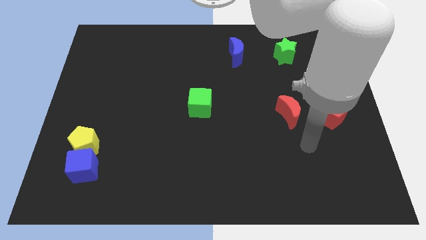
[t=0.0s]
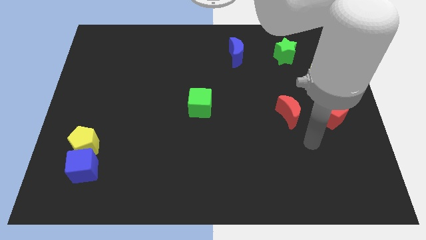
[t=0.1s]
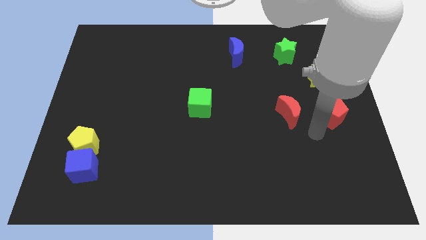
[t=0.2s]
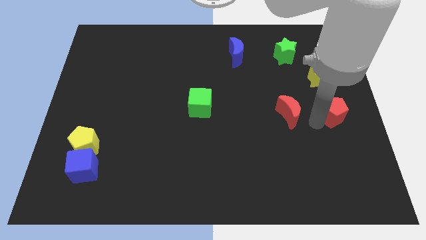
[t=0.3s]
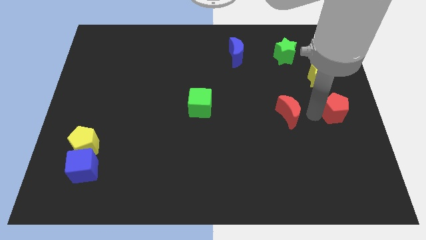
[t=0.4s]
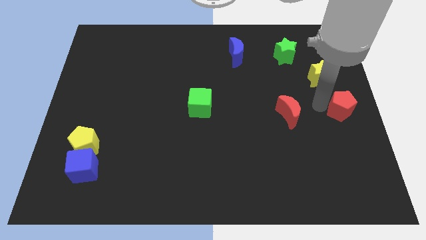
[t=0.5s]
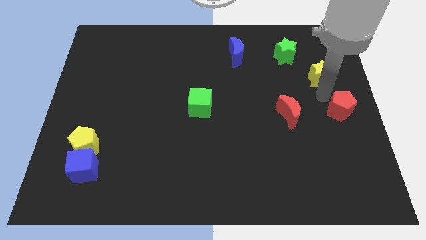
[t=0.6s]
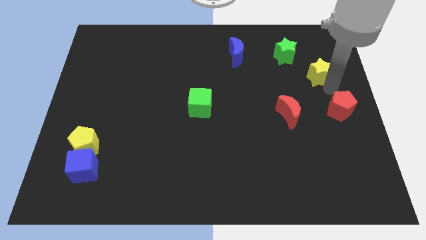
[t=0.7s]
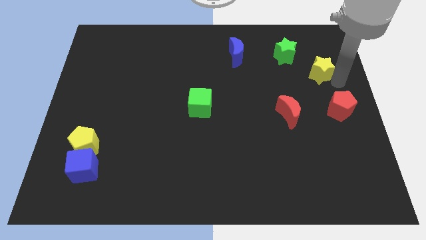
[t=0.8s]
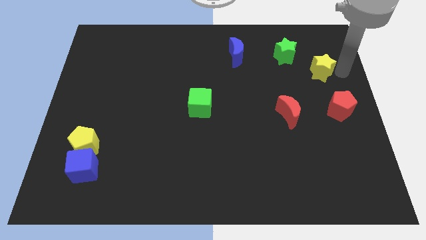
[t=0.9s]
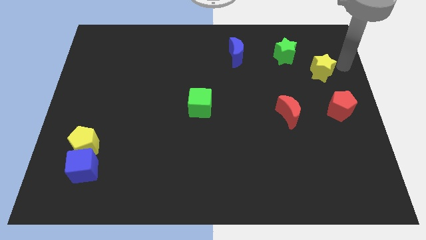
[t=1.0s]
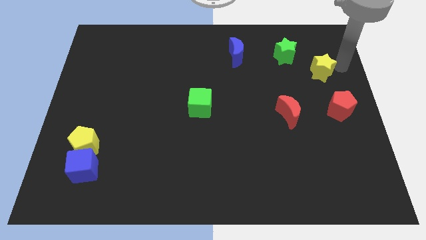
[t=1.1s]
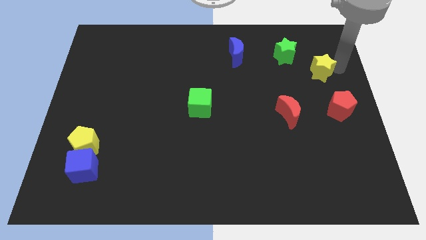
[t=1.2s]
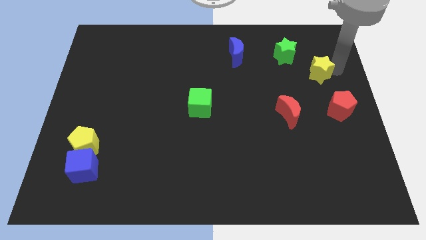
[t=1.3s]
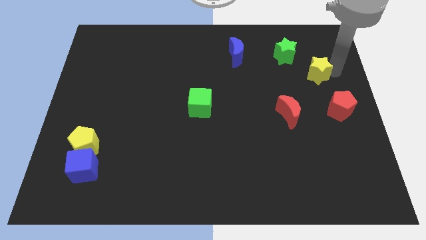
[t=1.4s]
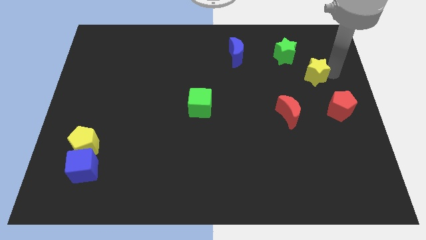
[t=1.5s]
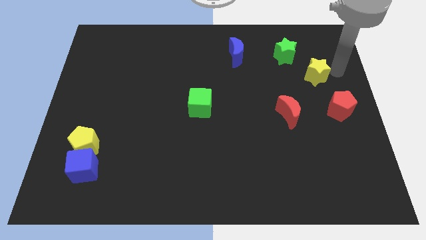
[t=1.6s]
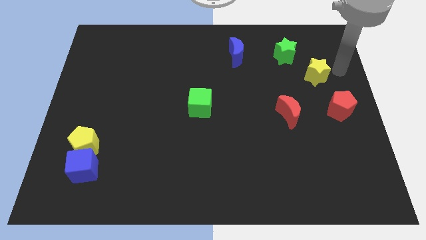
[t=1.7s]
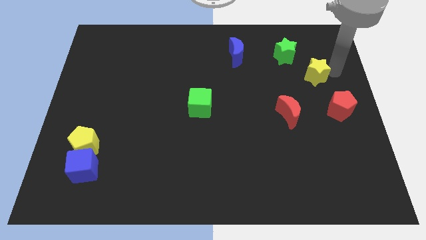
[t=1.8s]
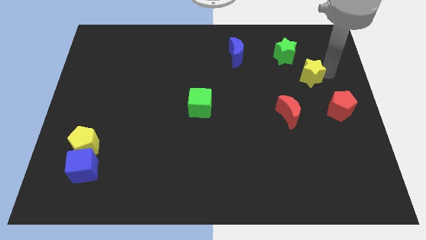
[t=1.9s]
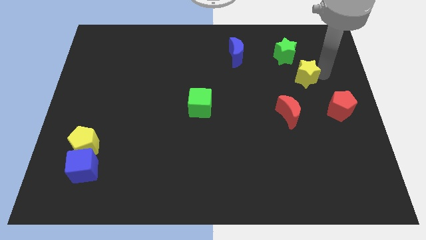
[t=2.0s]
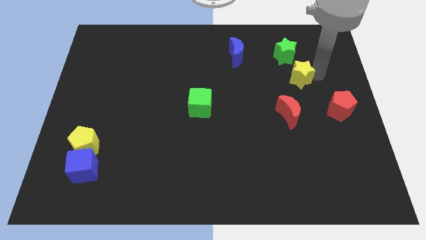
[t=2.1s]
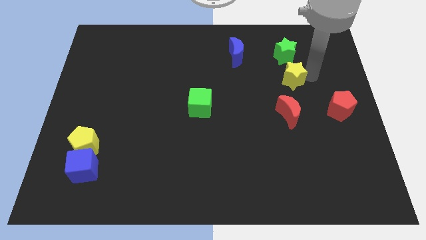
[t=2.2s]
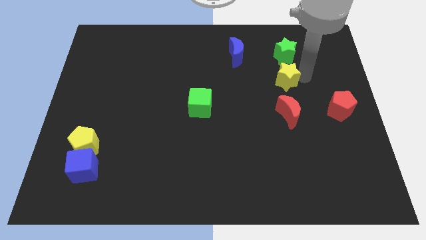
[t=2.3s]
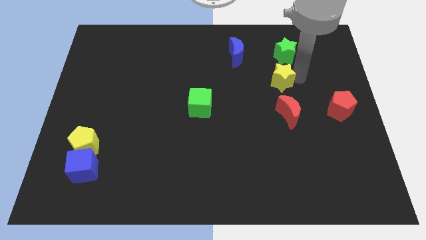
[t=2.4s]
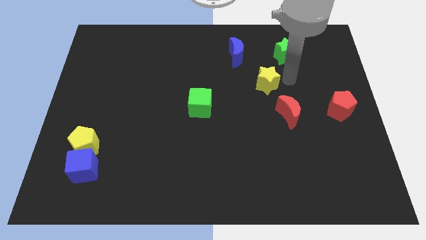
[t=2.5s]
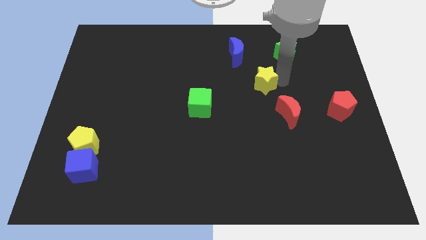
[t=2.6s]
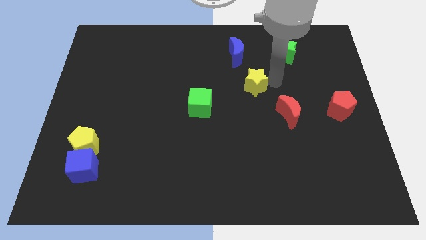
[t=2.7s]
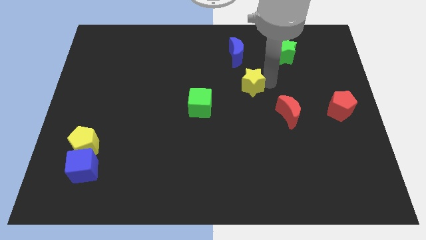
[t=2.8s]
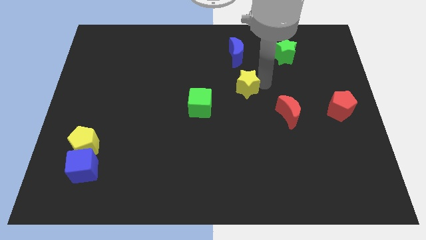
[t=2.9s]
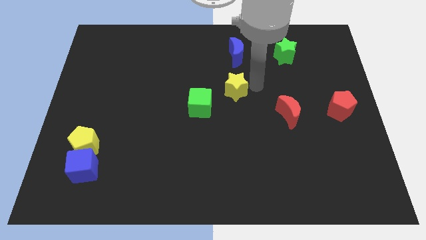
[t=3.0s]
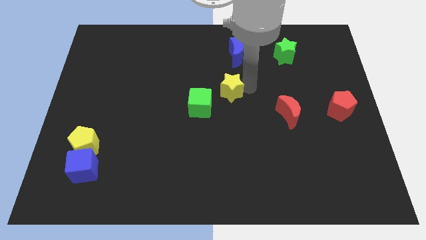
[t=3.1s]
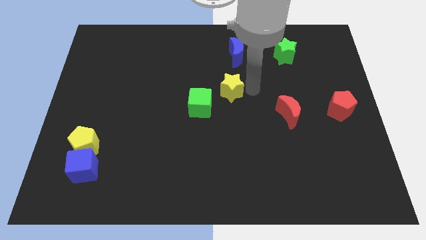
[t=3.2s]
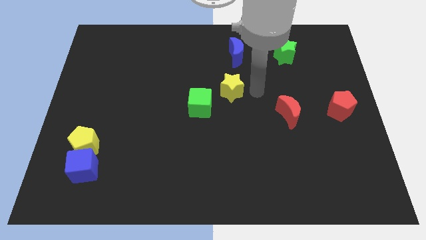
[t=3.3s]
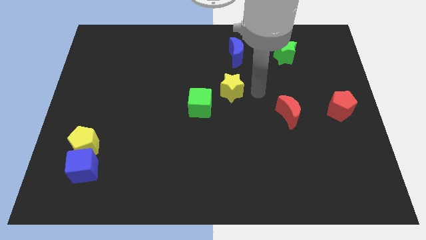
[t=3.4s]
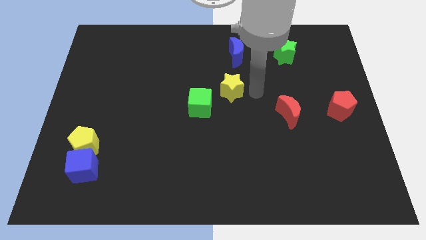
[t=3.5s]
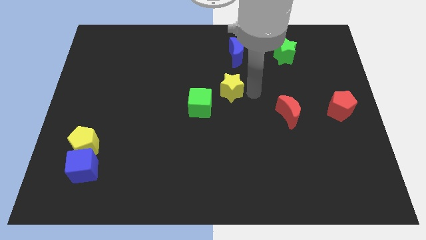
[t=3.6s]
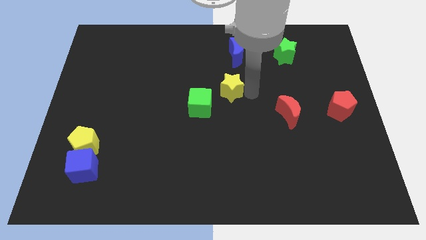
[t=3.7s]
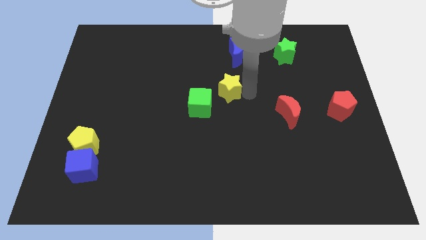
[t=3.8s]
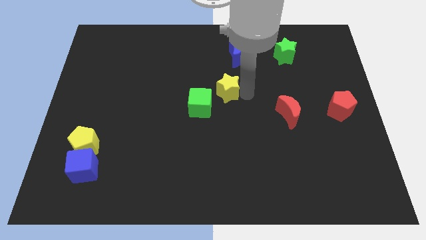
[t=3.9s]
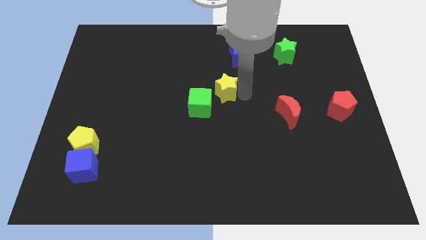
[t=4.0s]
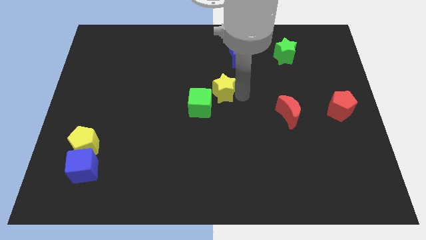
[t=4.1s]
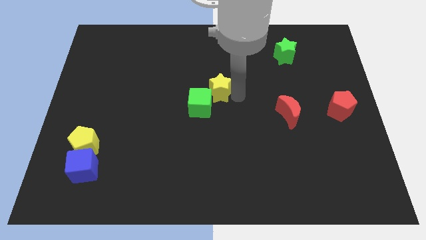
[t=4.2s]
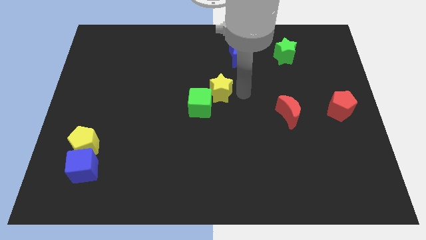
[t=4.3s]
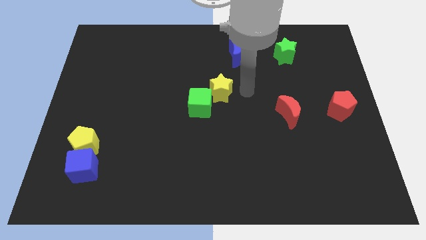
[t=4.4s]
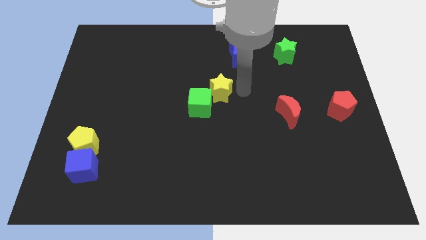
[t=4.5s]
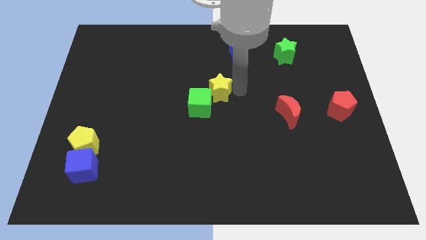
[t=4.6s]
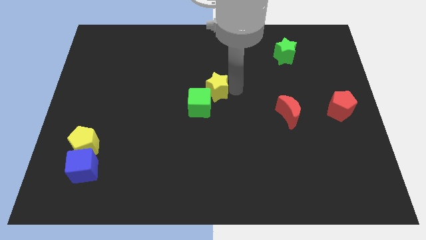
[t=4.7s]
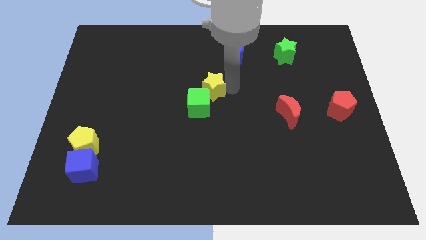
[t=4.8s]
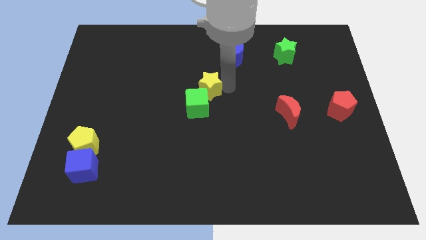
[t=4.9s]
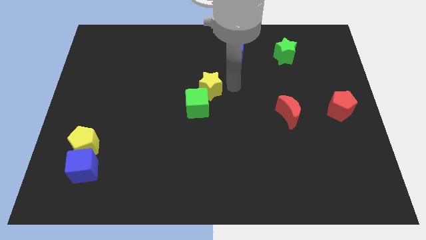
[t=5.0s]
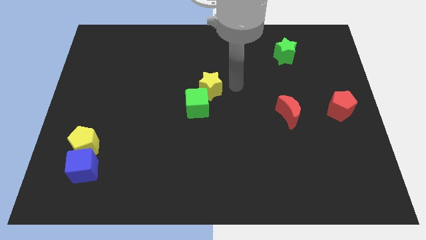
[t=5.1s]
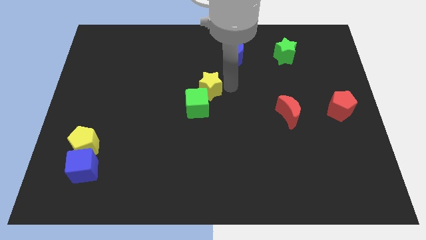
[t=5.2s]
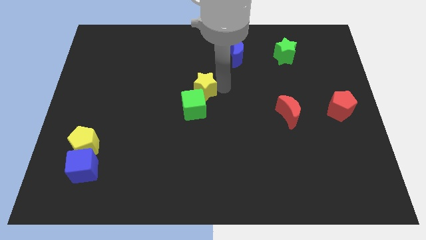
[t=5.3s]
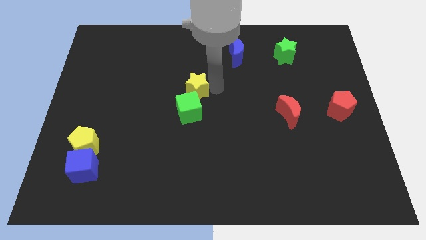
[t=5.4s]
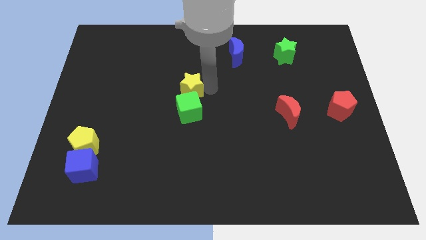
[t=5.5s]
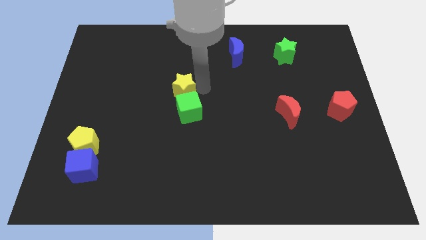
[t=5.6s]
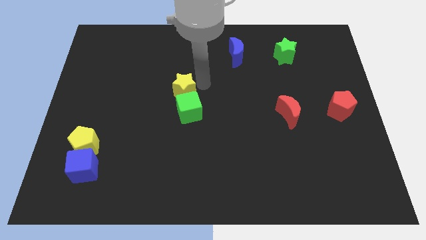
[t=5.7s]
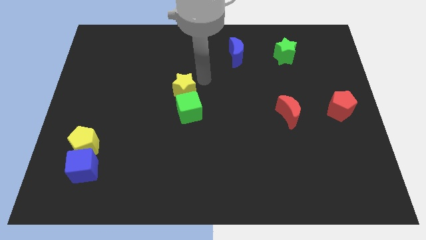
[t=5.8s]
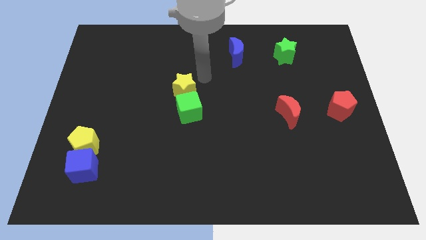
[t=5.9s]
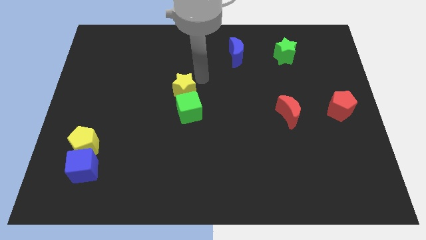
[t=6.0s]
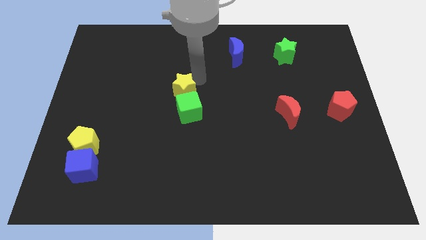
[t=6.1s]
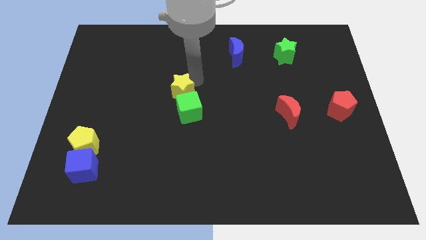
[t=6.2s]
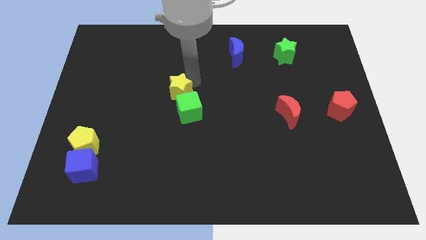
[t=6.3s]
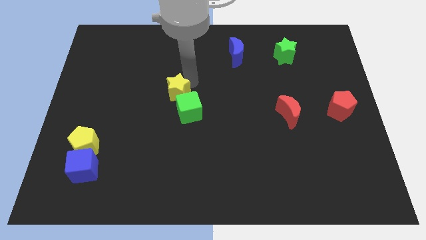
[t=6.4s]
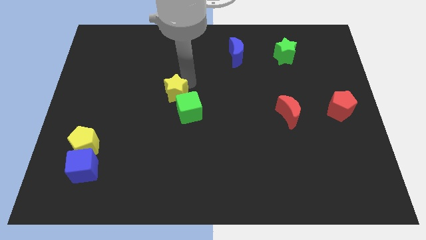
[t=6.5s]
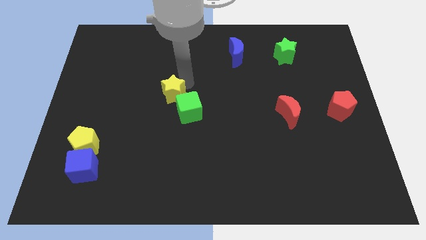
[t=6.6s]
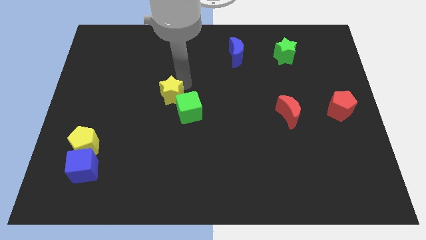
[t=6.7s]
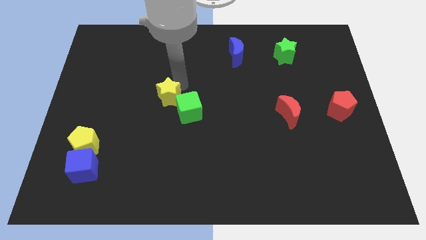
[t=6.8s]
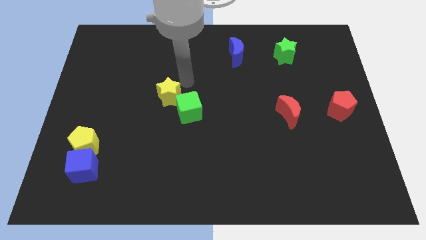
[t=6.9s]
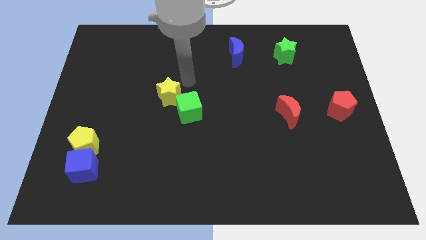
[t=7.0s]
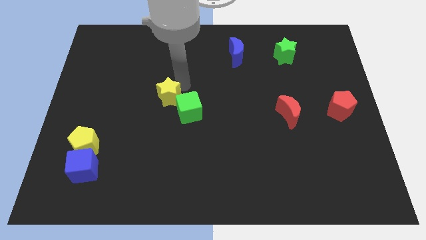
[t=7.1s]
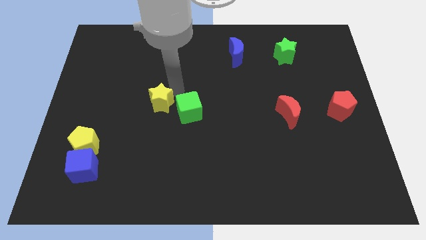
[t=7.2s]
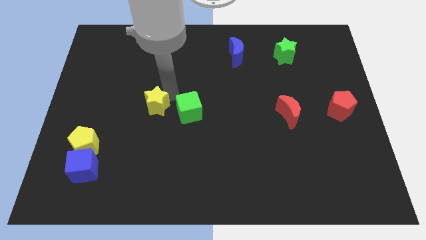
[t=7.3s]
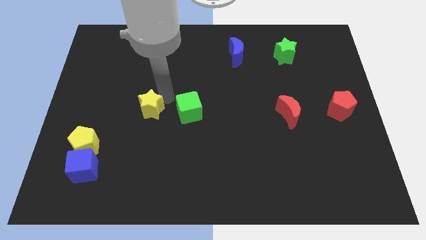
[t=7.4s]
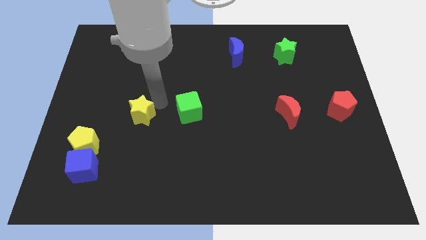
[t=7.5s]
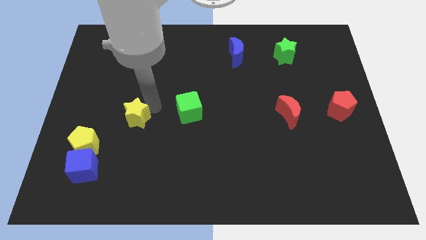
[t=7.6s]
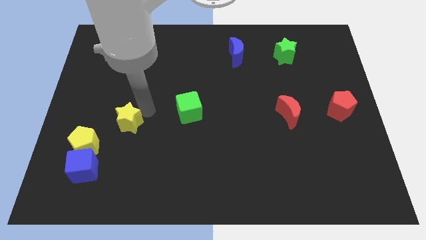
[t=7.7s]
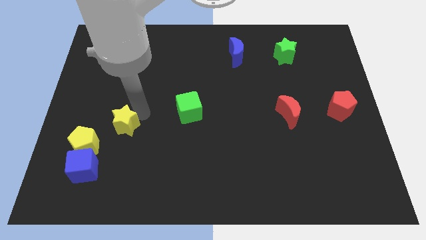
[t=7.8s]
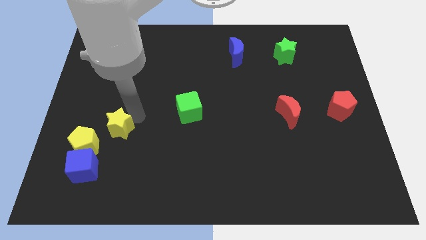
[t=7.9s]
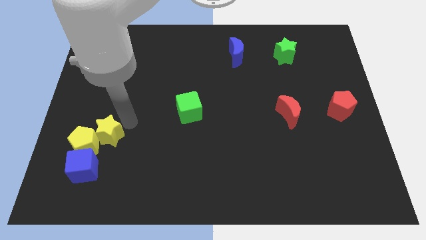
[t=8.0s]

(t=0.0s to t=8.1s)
put the yellow star to the yellow pentagon

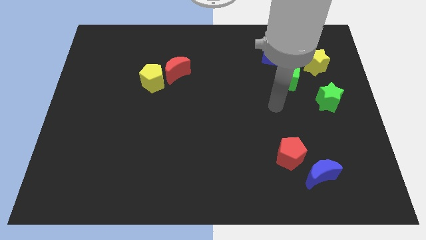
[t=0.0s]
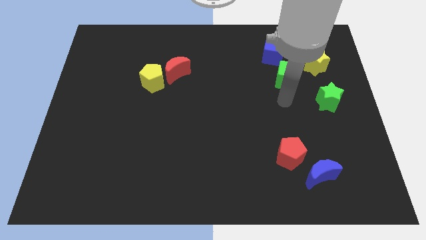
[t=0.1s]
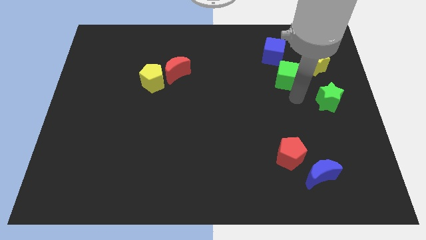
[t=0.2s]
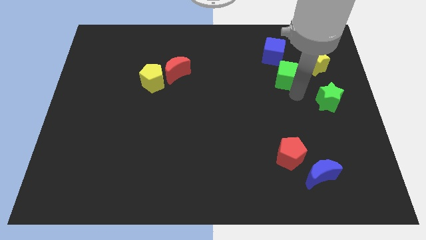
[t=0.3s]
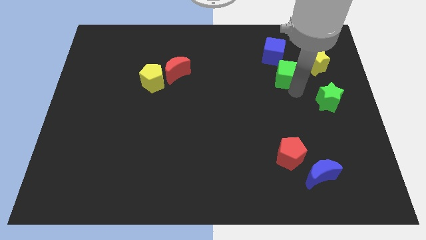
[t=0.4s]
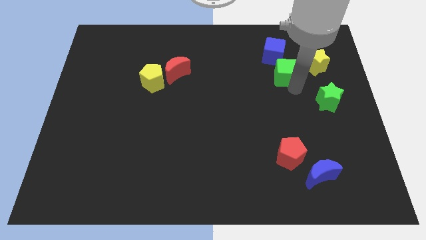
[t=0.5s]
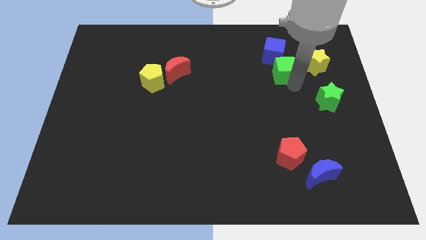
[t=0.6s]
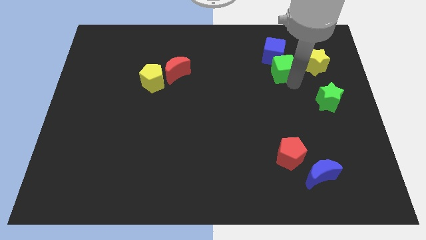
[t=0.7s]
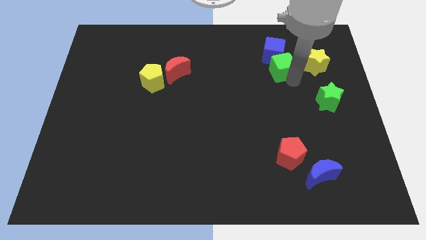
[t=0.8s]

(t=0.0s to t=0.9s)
slide the green cube towards the blue cube
